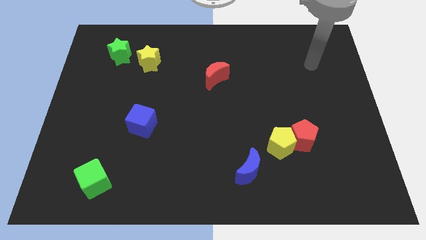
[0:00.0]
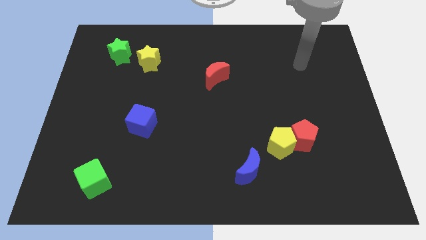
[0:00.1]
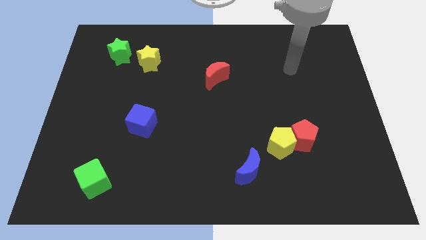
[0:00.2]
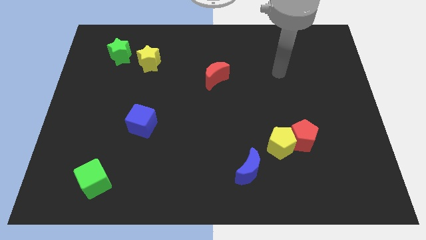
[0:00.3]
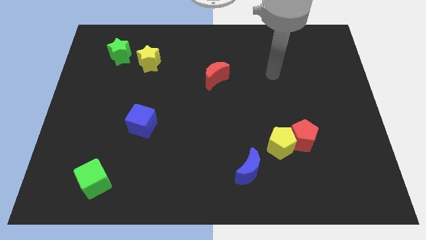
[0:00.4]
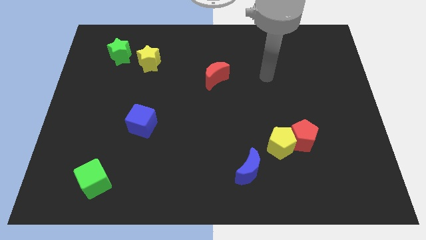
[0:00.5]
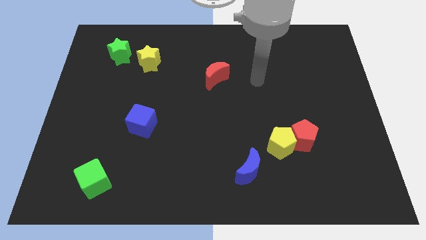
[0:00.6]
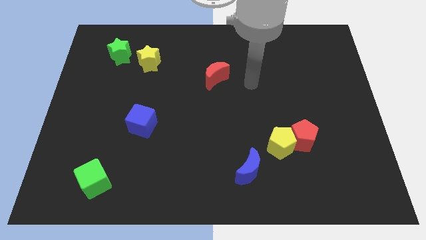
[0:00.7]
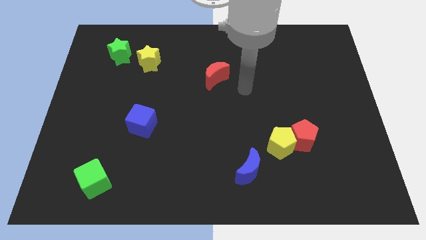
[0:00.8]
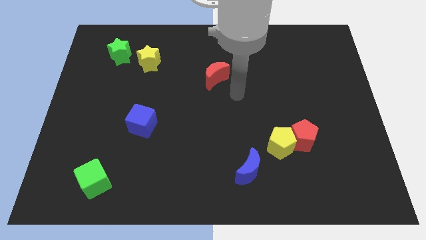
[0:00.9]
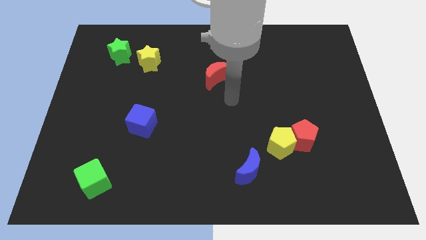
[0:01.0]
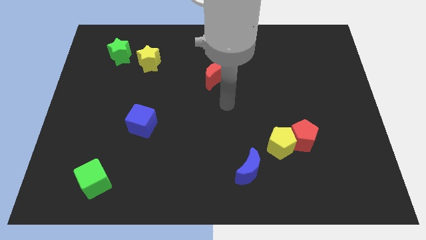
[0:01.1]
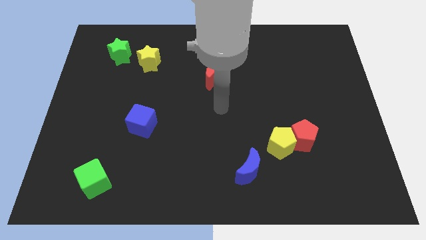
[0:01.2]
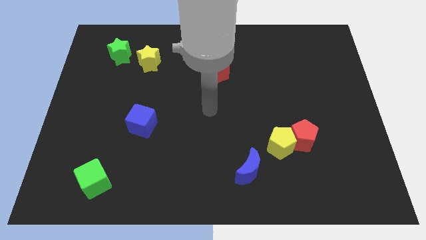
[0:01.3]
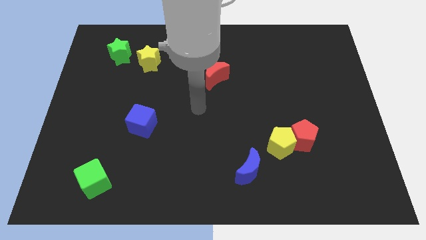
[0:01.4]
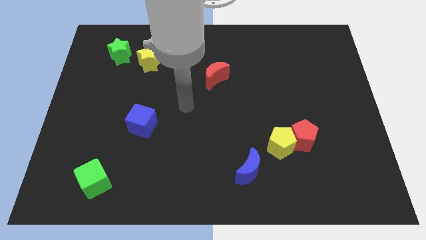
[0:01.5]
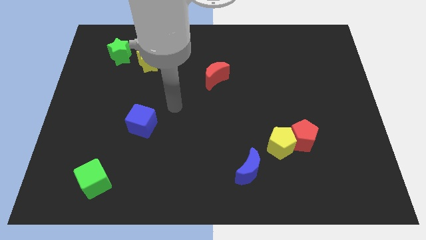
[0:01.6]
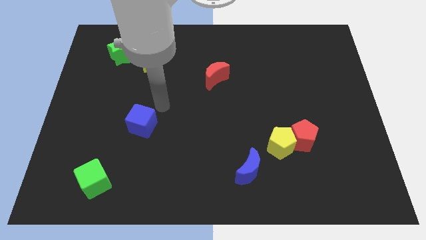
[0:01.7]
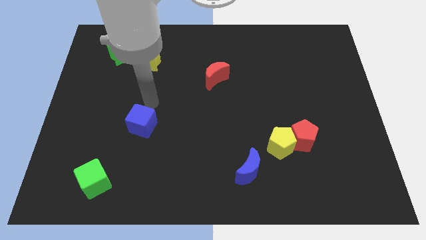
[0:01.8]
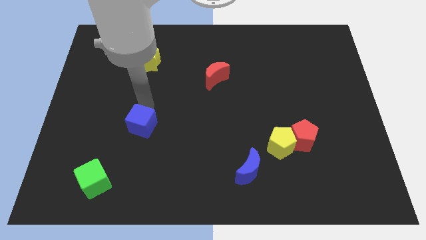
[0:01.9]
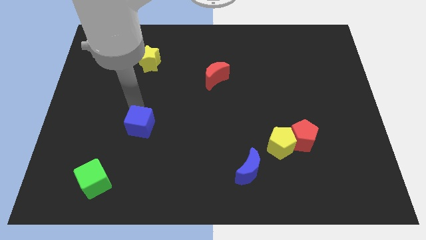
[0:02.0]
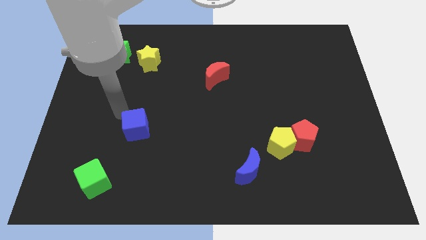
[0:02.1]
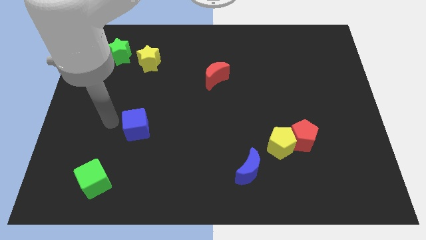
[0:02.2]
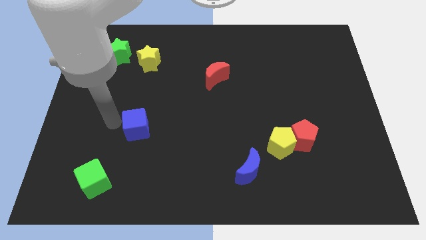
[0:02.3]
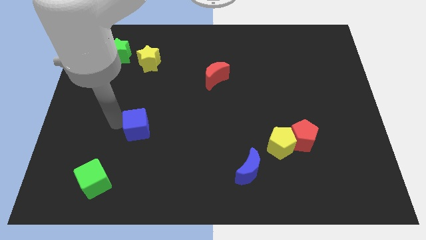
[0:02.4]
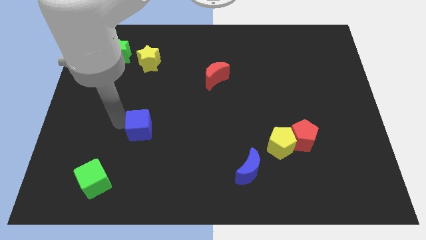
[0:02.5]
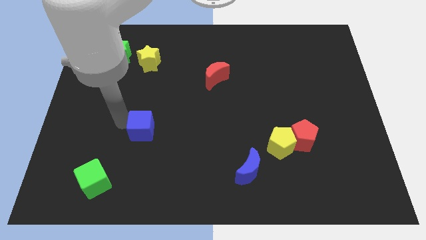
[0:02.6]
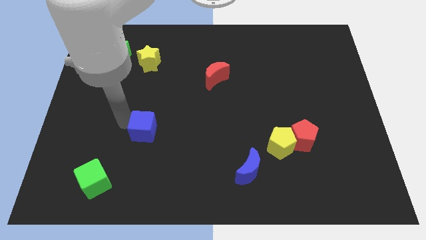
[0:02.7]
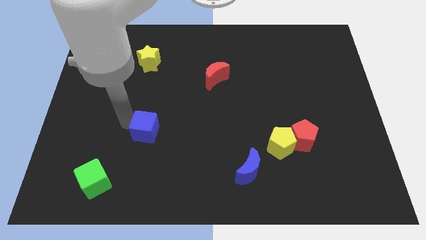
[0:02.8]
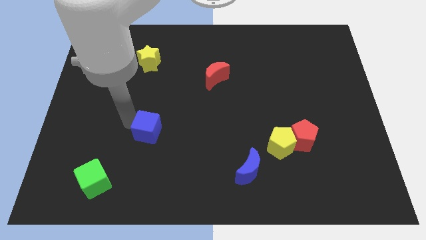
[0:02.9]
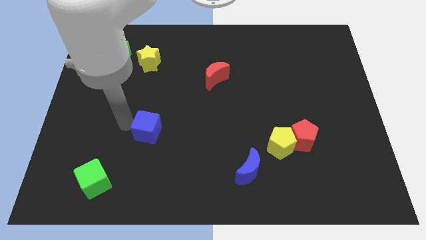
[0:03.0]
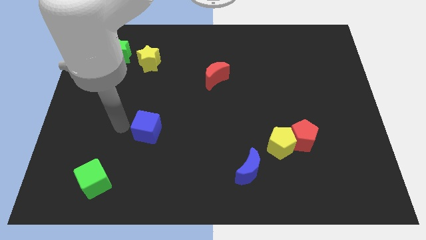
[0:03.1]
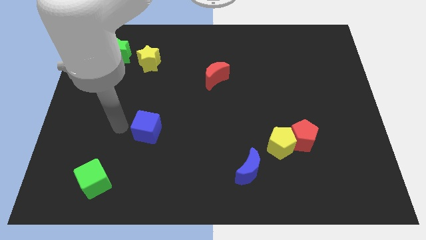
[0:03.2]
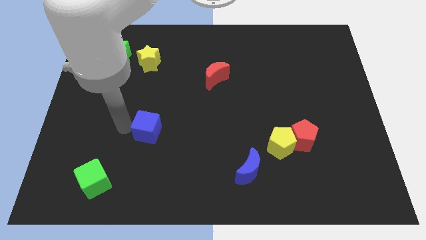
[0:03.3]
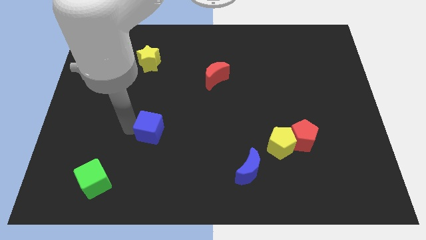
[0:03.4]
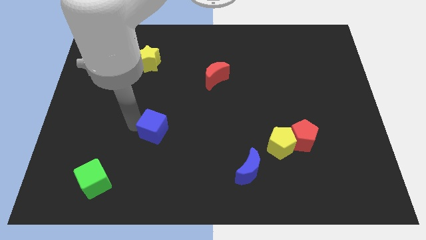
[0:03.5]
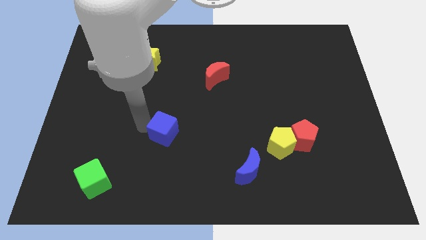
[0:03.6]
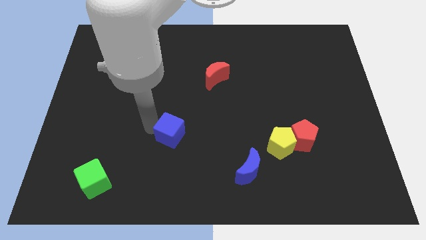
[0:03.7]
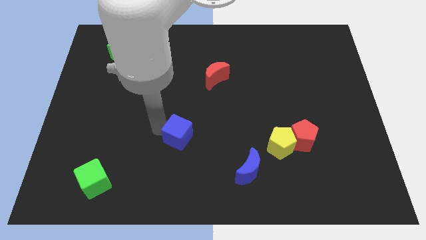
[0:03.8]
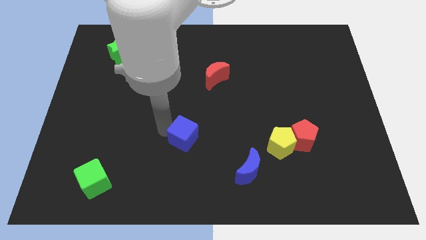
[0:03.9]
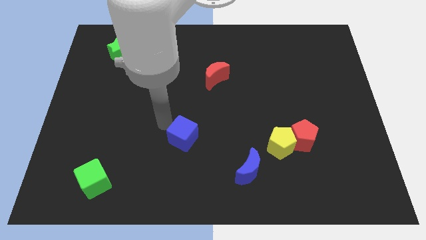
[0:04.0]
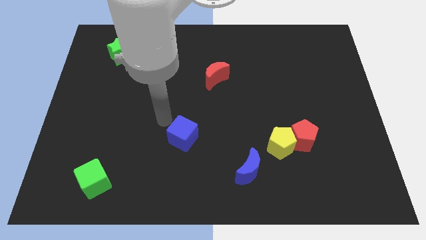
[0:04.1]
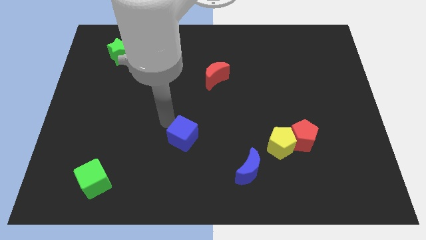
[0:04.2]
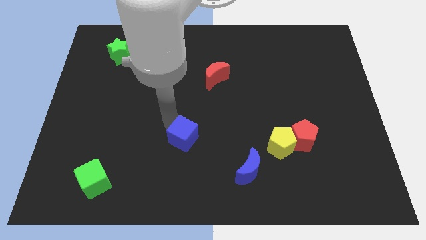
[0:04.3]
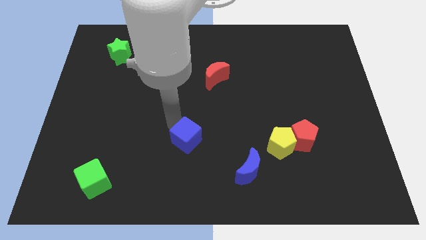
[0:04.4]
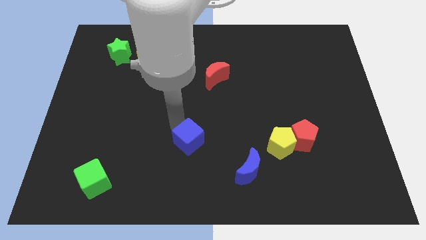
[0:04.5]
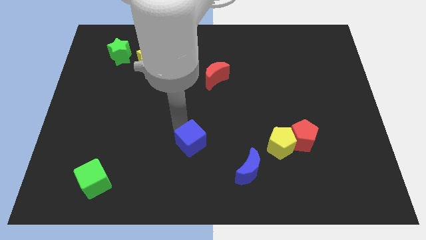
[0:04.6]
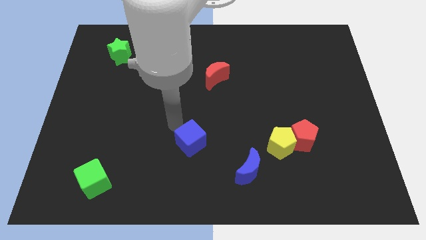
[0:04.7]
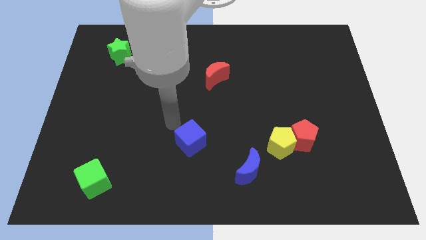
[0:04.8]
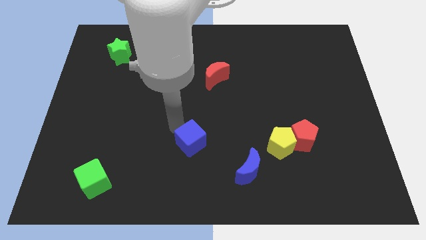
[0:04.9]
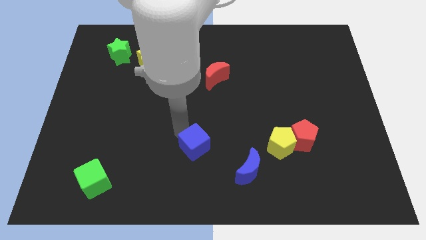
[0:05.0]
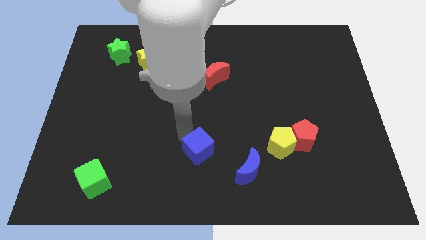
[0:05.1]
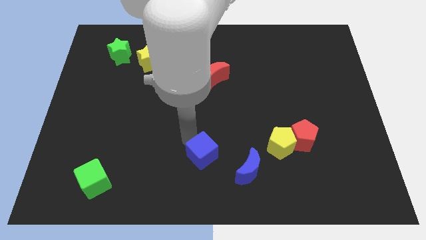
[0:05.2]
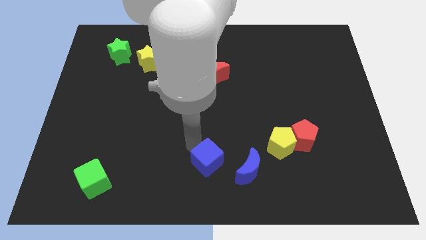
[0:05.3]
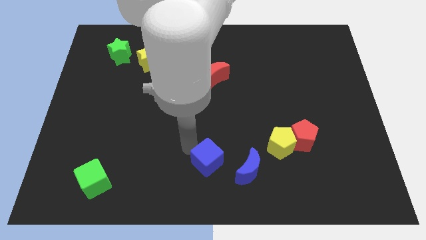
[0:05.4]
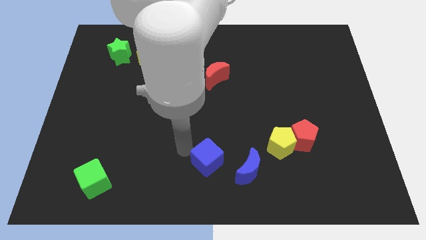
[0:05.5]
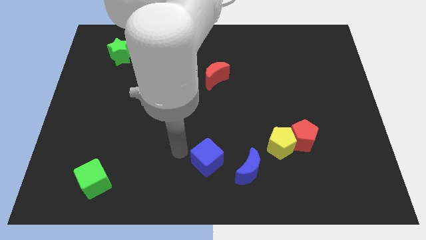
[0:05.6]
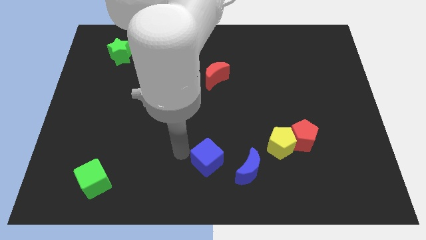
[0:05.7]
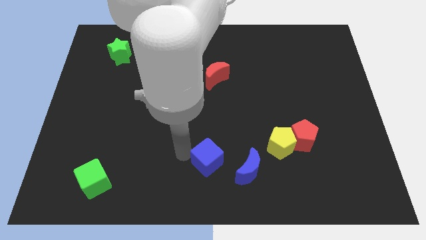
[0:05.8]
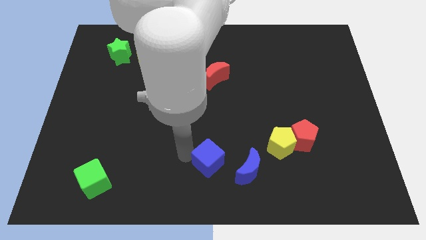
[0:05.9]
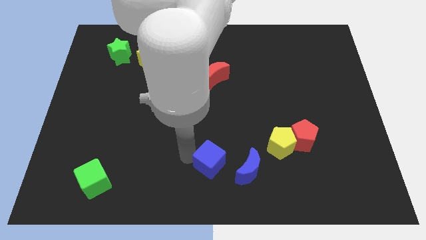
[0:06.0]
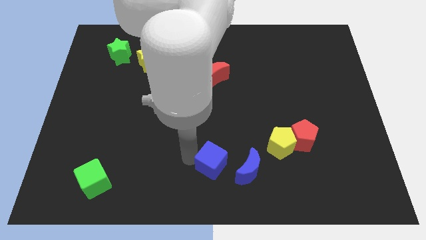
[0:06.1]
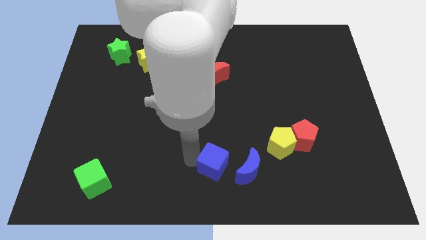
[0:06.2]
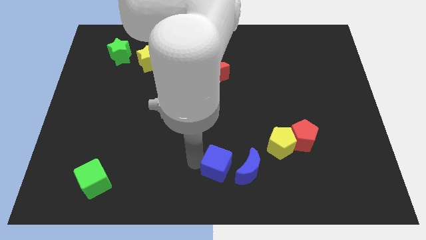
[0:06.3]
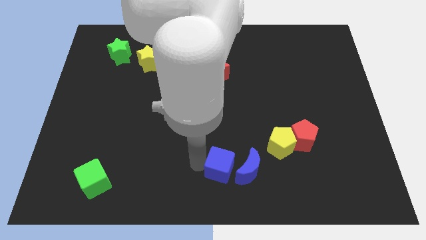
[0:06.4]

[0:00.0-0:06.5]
put the blue cube close to the blue moon
